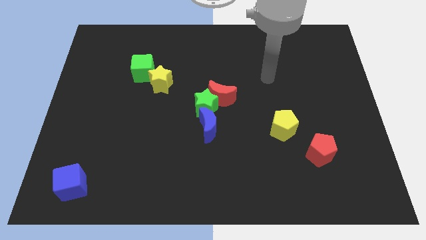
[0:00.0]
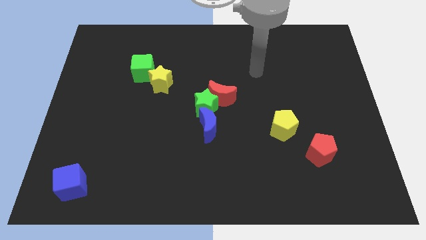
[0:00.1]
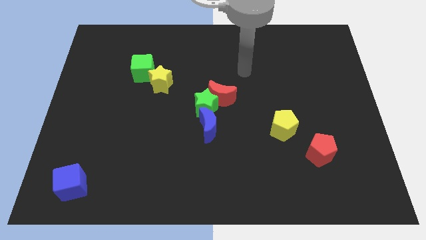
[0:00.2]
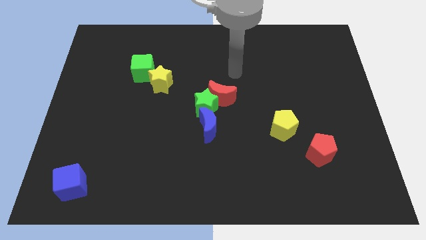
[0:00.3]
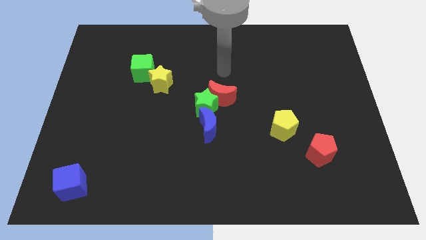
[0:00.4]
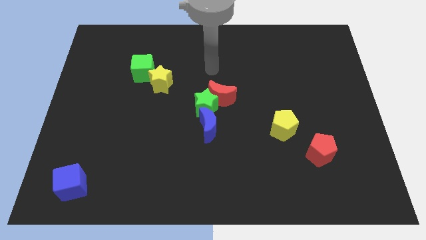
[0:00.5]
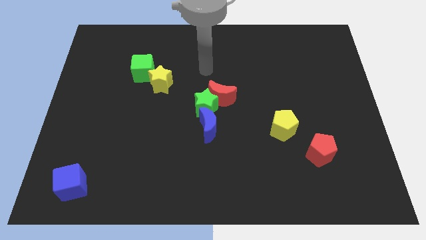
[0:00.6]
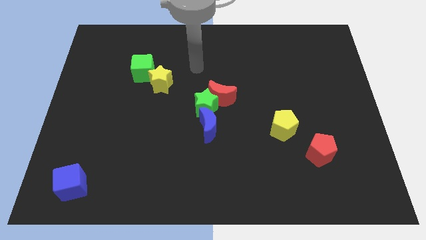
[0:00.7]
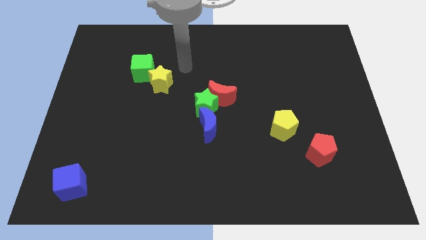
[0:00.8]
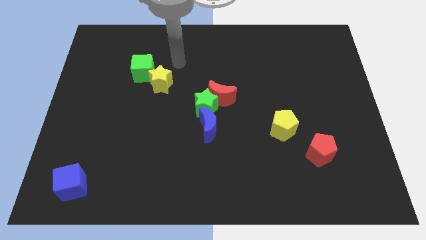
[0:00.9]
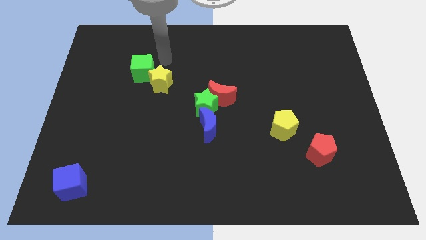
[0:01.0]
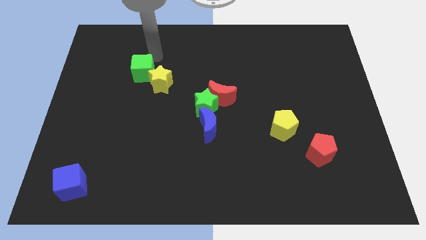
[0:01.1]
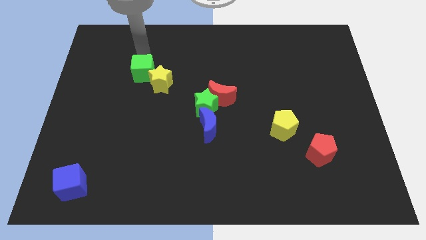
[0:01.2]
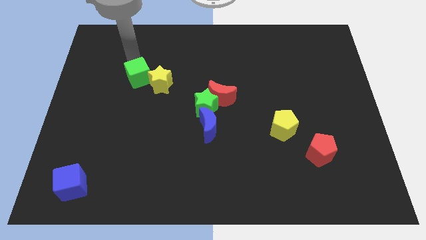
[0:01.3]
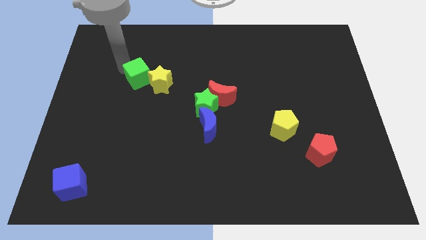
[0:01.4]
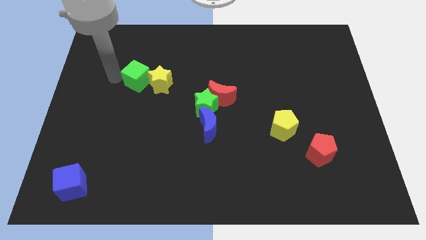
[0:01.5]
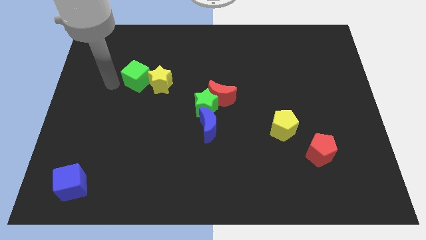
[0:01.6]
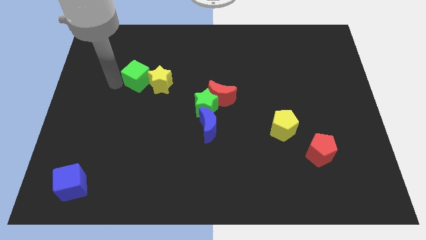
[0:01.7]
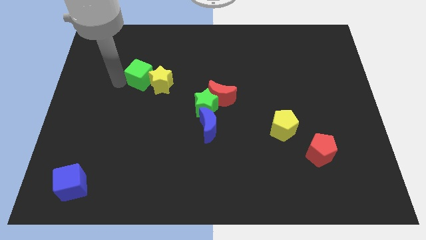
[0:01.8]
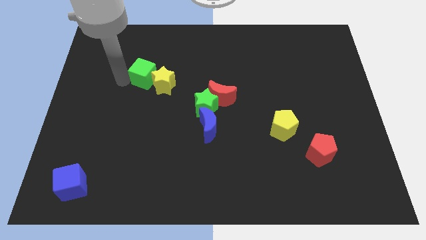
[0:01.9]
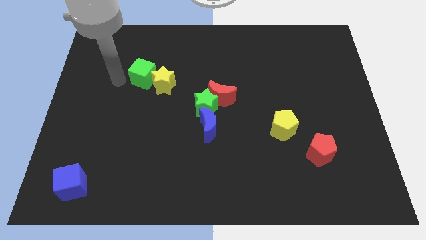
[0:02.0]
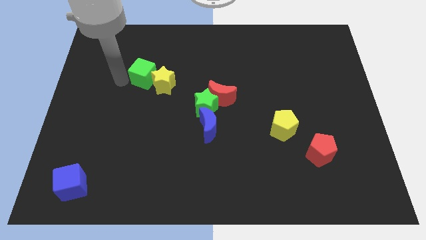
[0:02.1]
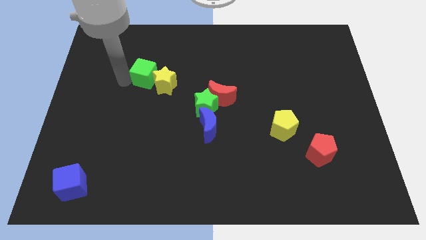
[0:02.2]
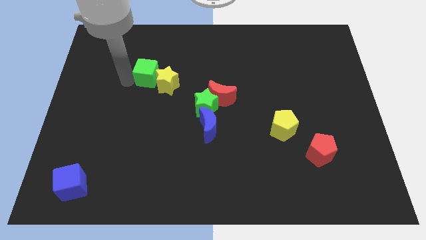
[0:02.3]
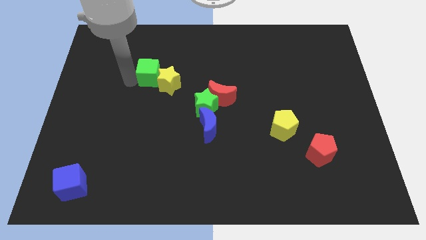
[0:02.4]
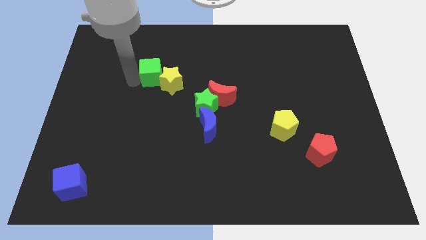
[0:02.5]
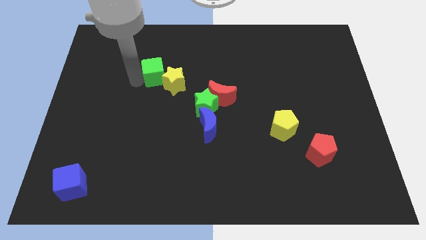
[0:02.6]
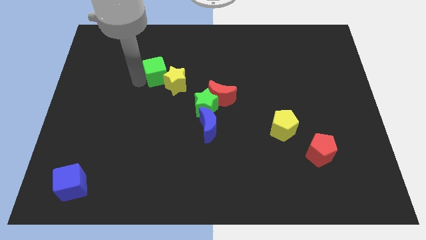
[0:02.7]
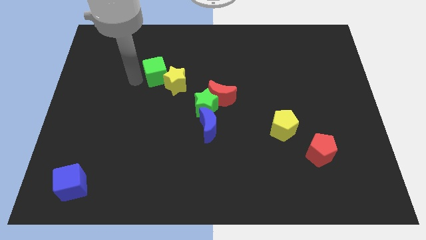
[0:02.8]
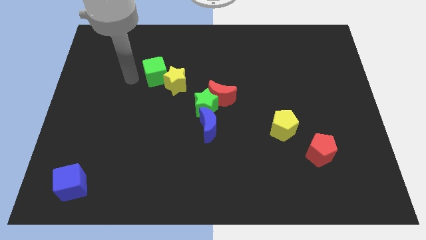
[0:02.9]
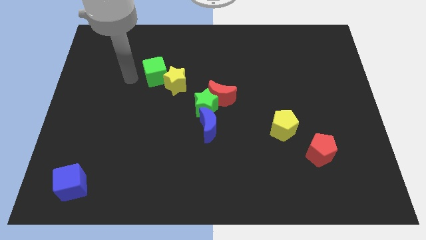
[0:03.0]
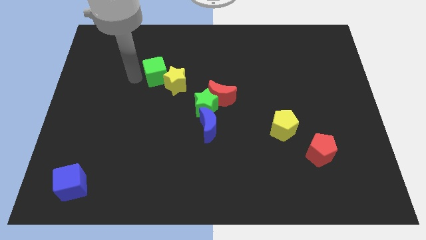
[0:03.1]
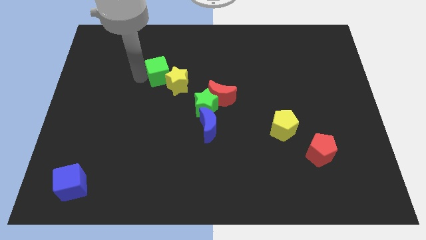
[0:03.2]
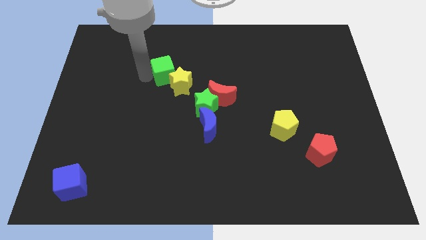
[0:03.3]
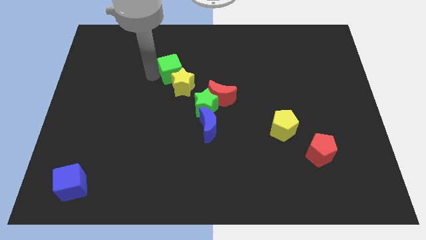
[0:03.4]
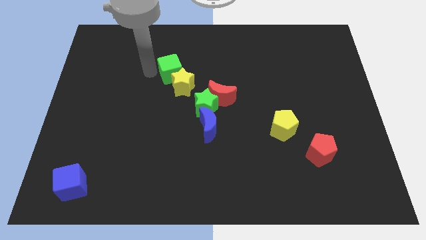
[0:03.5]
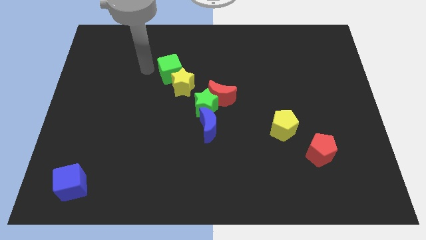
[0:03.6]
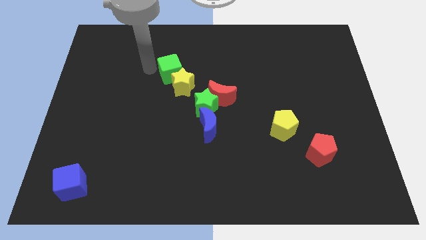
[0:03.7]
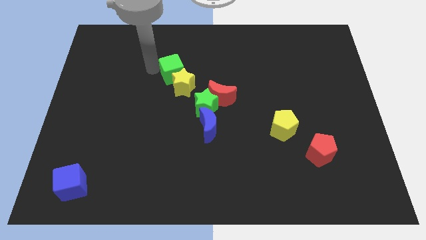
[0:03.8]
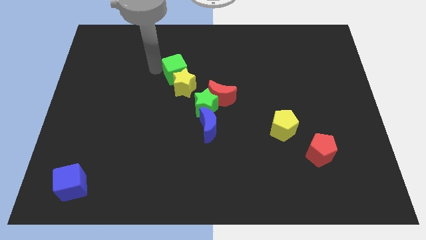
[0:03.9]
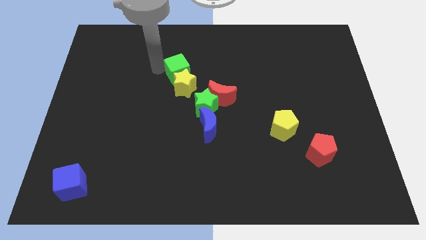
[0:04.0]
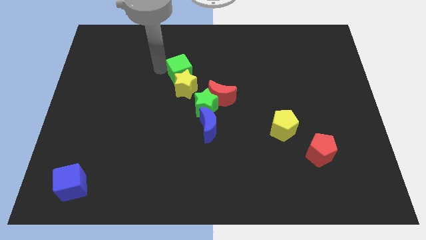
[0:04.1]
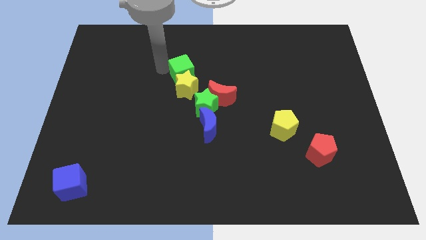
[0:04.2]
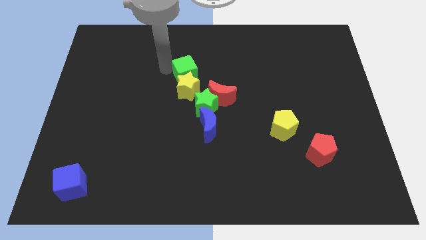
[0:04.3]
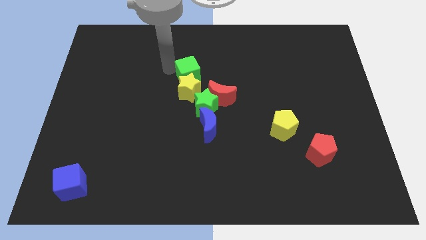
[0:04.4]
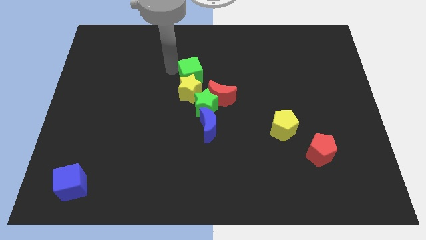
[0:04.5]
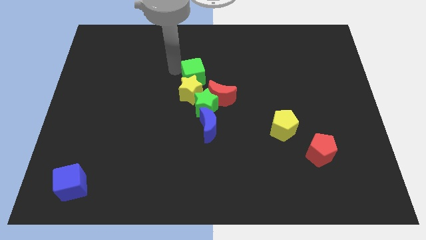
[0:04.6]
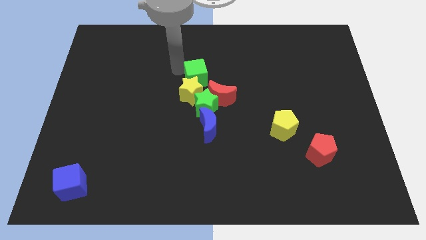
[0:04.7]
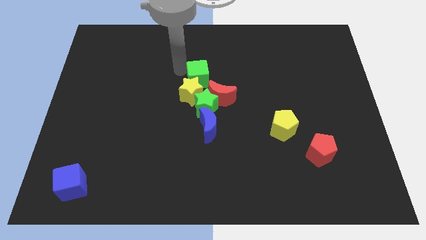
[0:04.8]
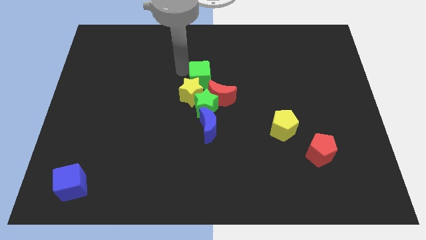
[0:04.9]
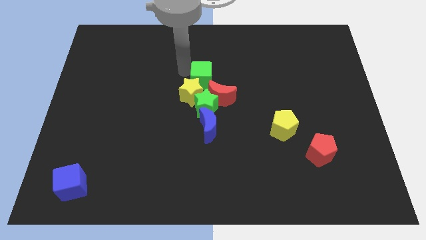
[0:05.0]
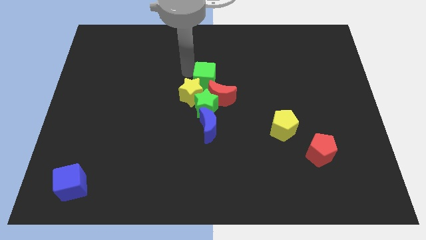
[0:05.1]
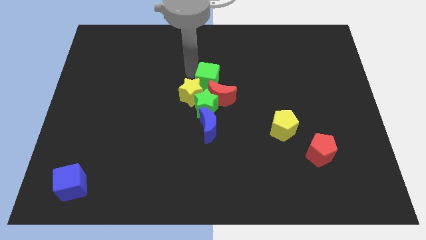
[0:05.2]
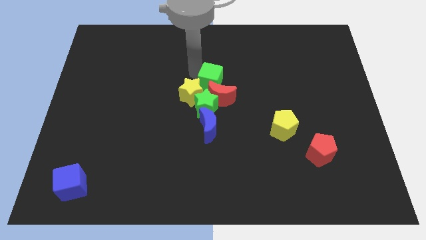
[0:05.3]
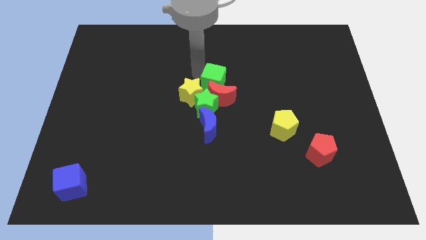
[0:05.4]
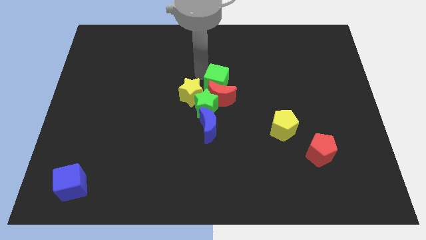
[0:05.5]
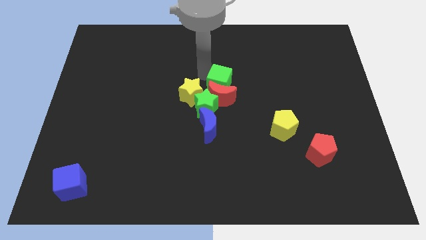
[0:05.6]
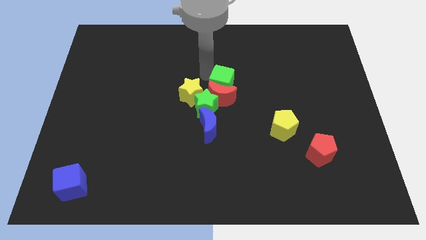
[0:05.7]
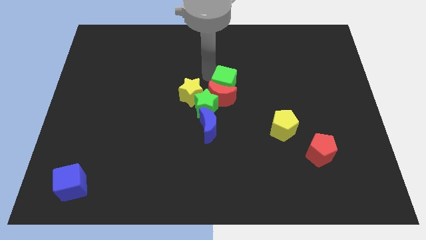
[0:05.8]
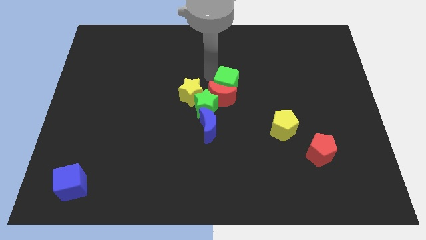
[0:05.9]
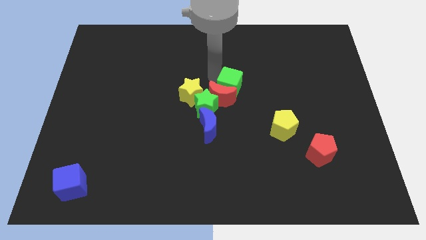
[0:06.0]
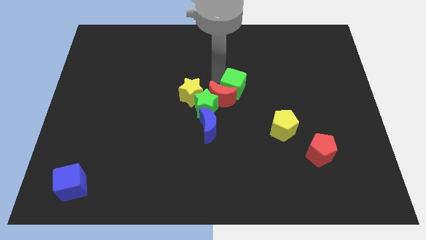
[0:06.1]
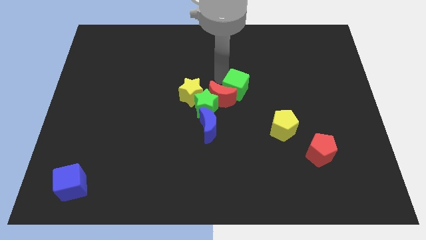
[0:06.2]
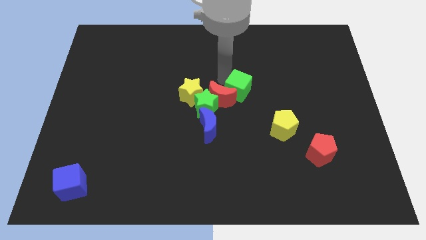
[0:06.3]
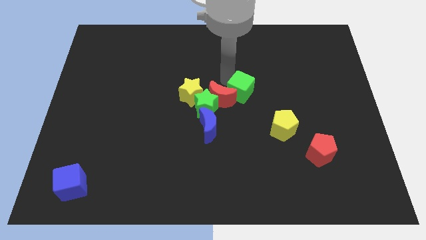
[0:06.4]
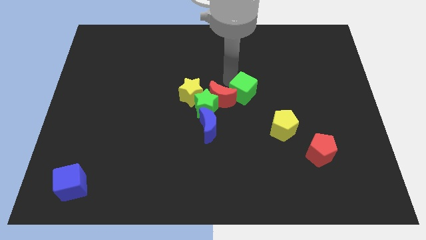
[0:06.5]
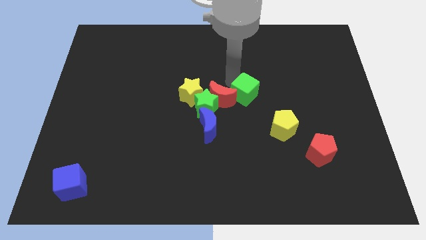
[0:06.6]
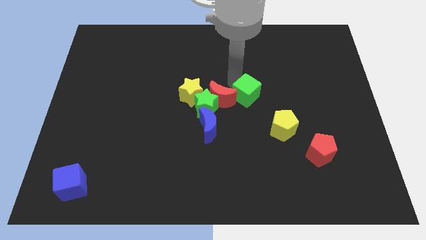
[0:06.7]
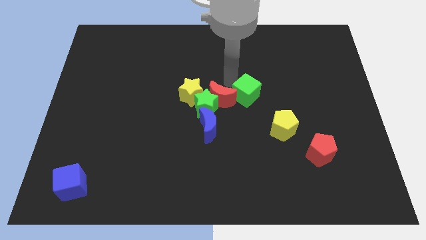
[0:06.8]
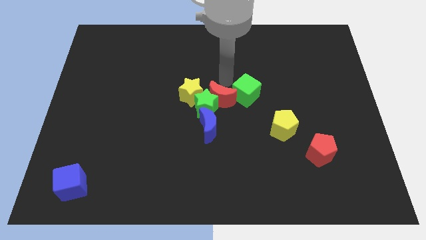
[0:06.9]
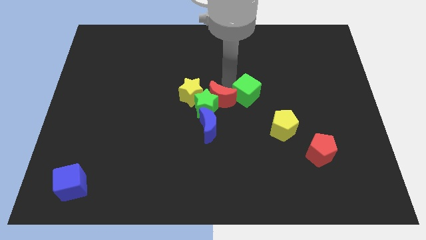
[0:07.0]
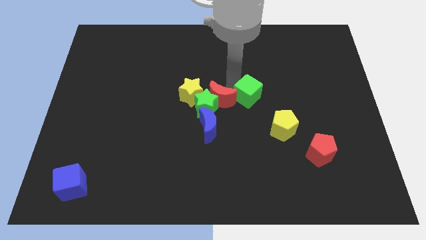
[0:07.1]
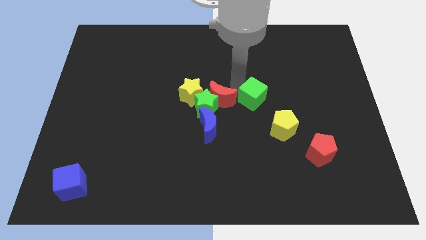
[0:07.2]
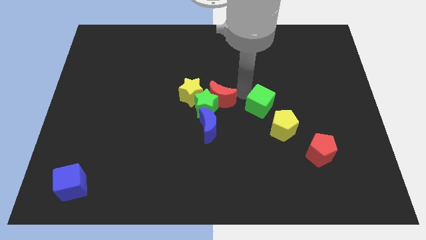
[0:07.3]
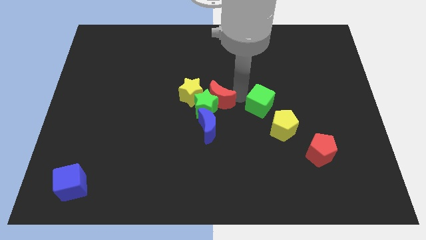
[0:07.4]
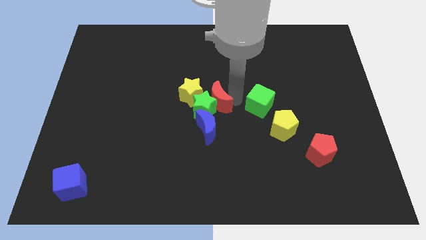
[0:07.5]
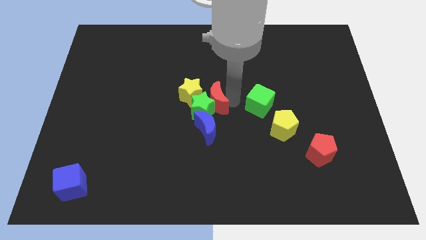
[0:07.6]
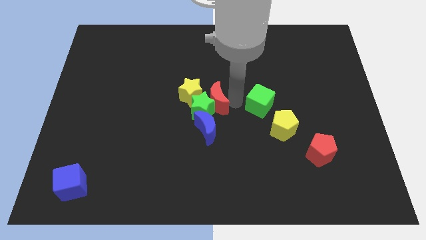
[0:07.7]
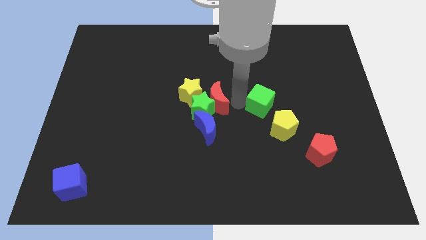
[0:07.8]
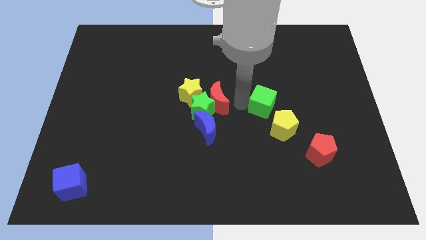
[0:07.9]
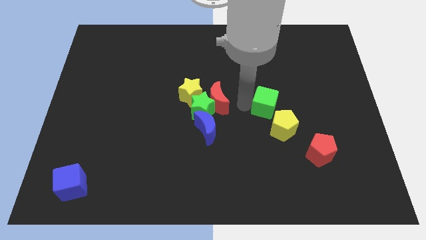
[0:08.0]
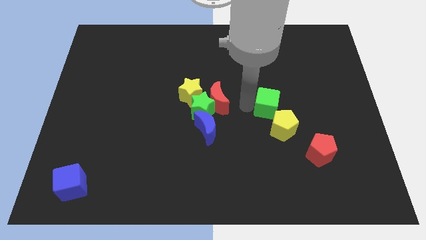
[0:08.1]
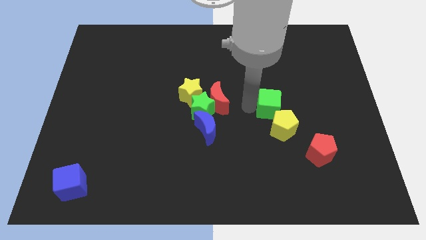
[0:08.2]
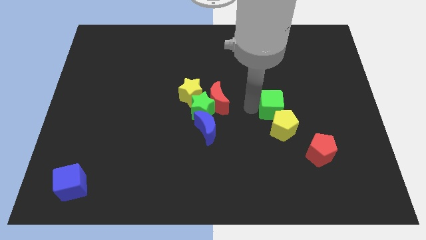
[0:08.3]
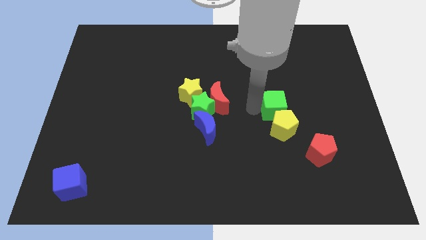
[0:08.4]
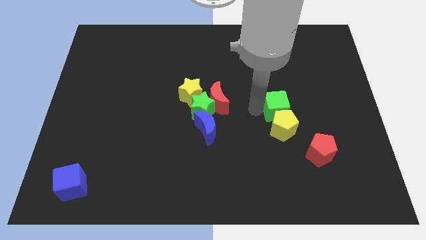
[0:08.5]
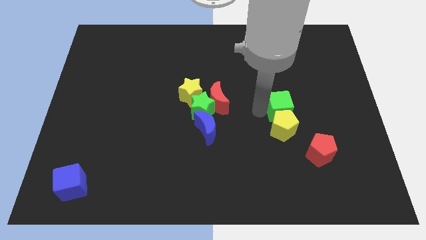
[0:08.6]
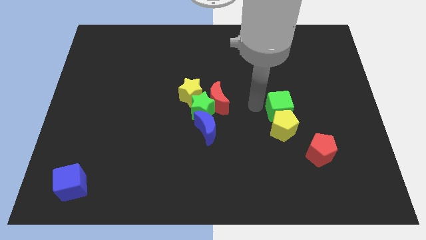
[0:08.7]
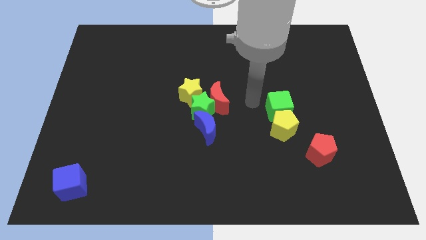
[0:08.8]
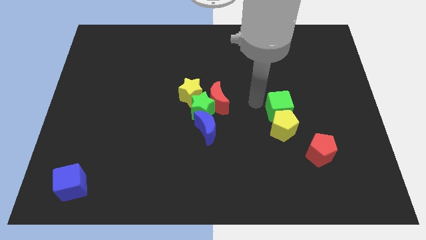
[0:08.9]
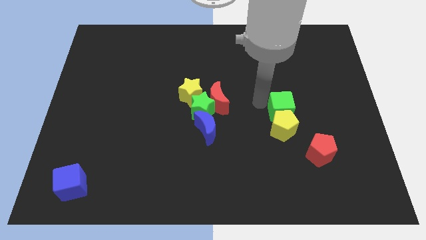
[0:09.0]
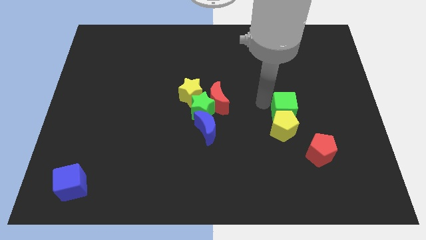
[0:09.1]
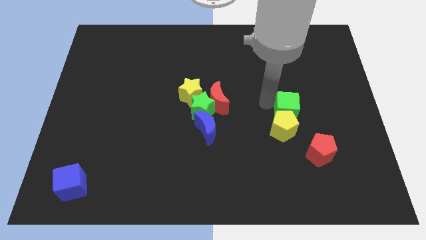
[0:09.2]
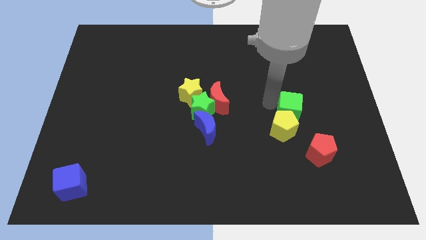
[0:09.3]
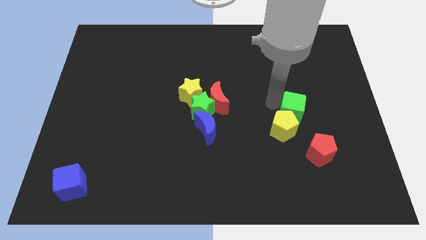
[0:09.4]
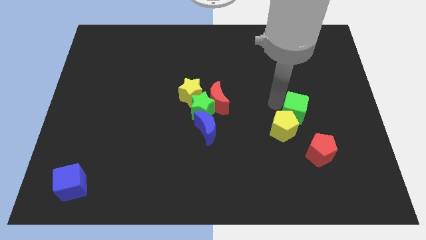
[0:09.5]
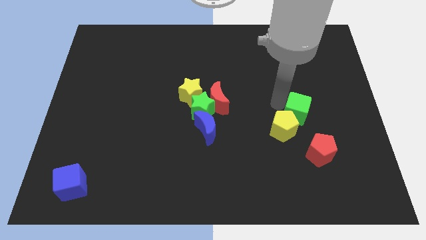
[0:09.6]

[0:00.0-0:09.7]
push the green cube right of the yellow pentagon
